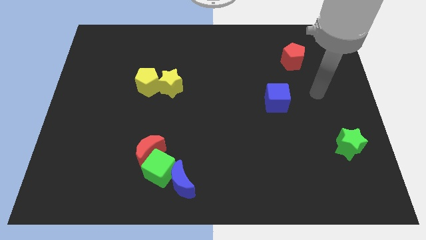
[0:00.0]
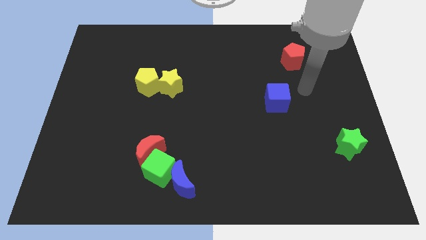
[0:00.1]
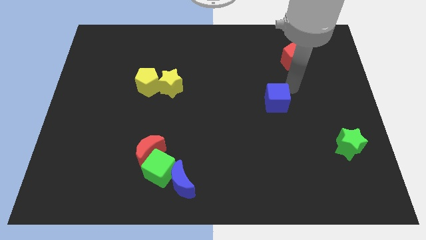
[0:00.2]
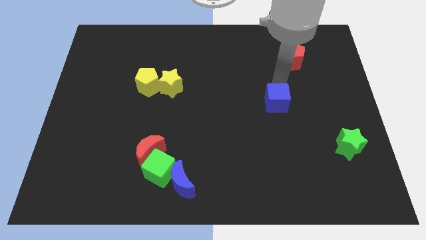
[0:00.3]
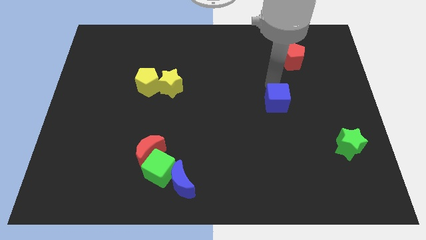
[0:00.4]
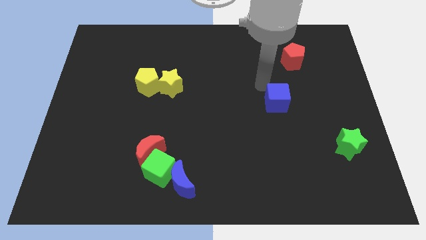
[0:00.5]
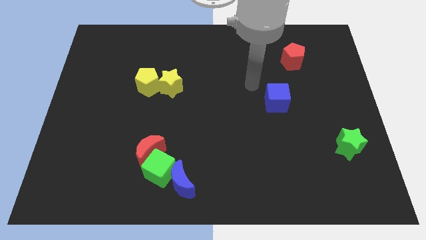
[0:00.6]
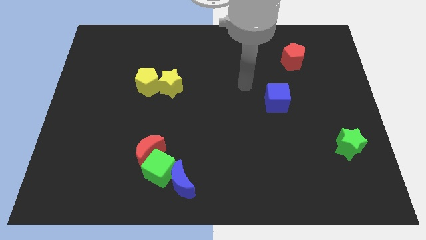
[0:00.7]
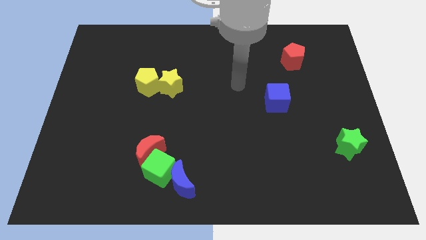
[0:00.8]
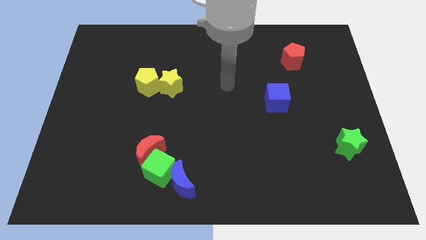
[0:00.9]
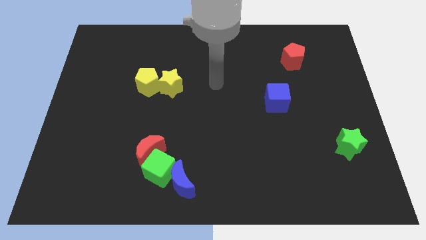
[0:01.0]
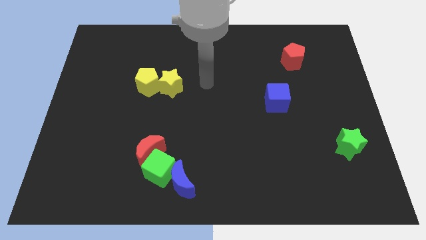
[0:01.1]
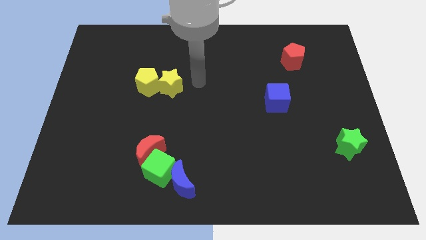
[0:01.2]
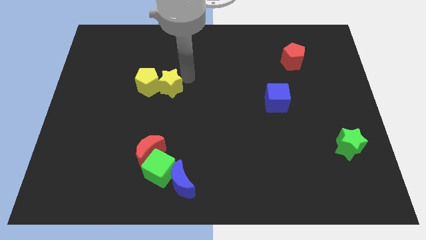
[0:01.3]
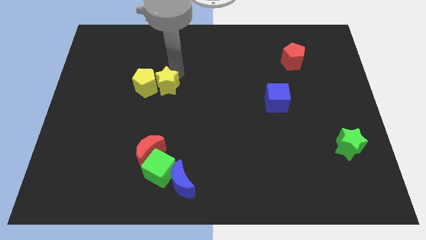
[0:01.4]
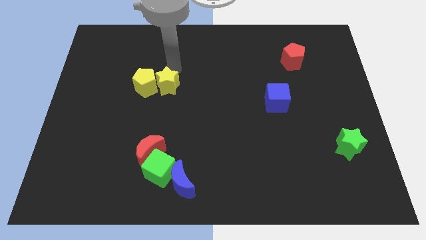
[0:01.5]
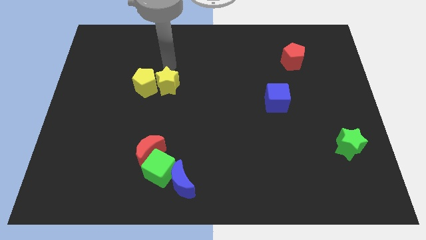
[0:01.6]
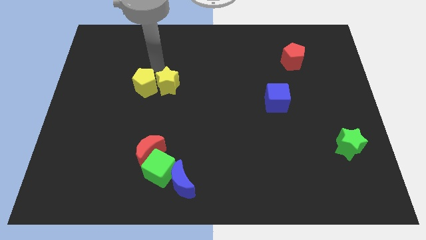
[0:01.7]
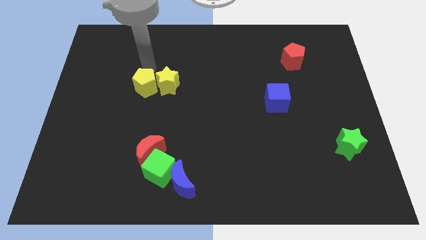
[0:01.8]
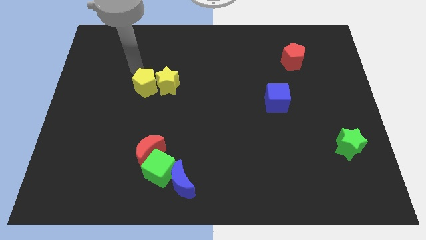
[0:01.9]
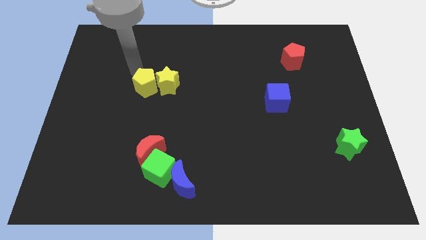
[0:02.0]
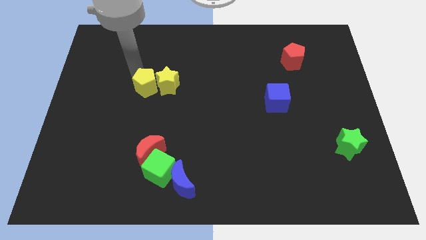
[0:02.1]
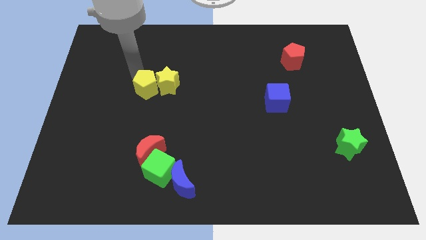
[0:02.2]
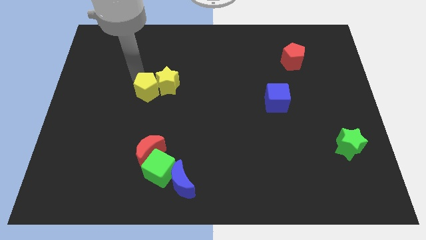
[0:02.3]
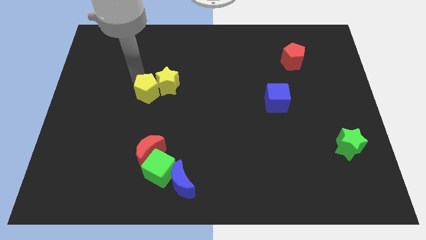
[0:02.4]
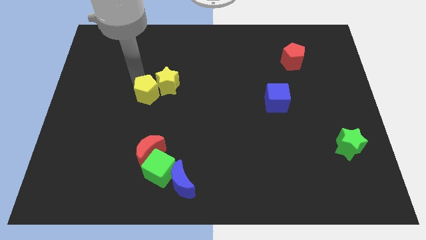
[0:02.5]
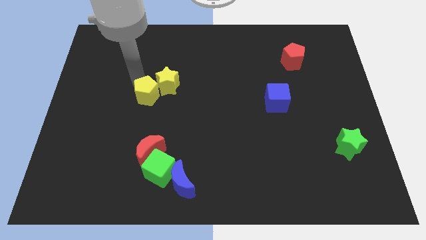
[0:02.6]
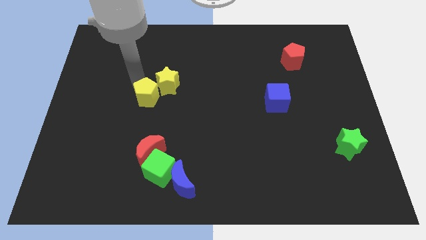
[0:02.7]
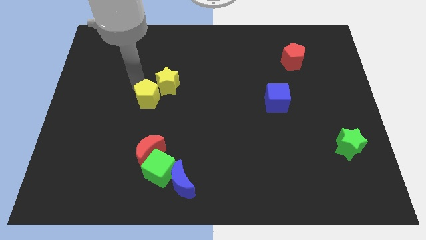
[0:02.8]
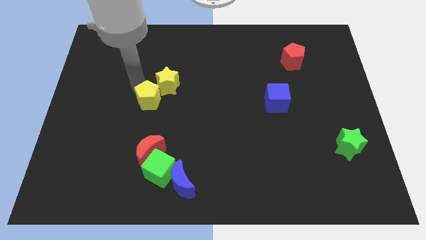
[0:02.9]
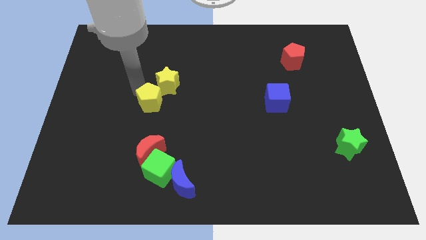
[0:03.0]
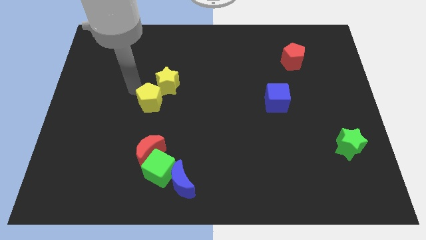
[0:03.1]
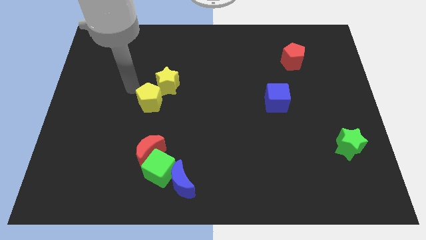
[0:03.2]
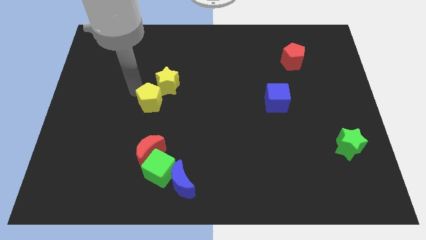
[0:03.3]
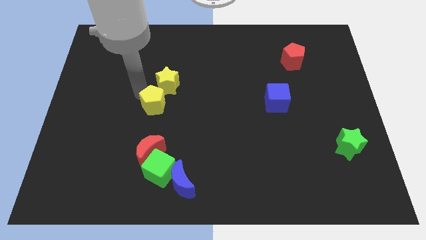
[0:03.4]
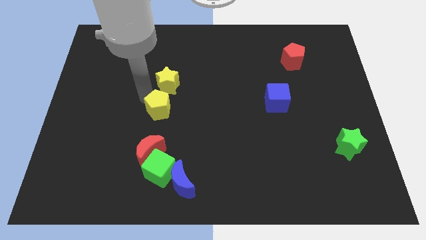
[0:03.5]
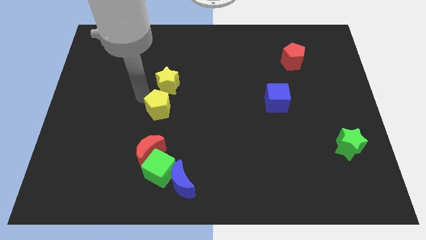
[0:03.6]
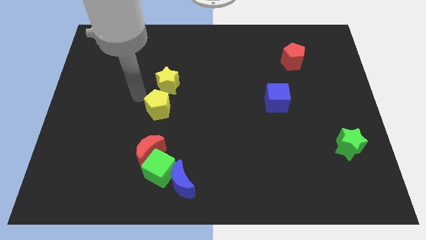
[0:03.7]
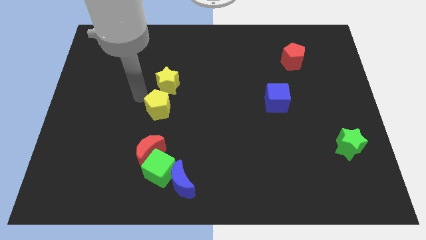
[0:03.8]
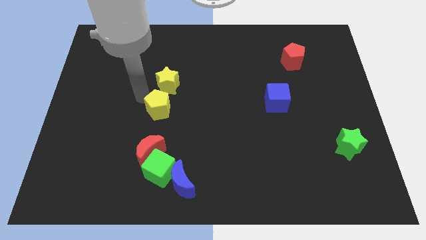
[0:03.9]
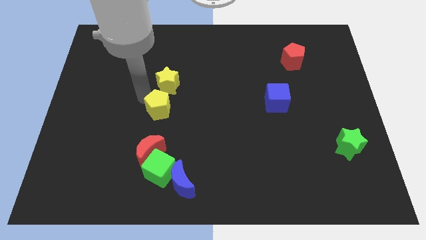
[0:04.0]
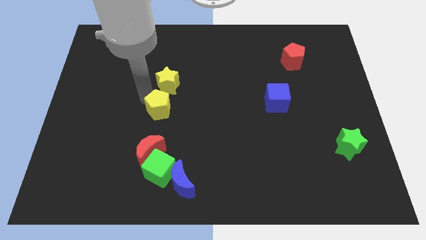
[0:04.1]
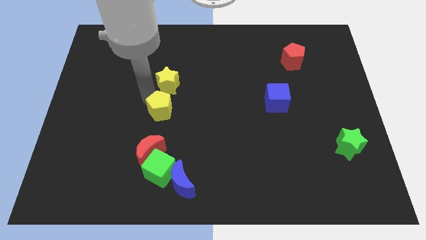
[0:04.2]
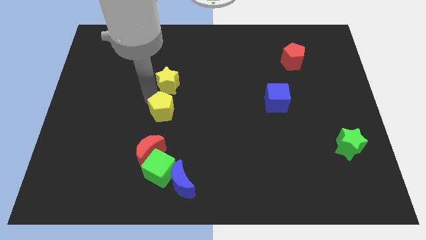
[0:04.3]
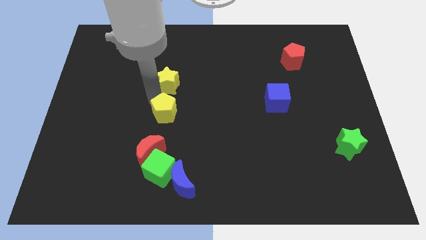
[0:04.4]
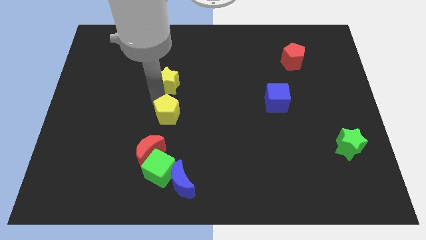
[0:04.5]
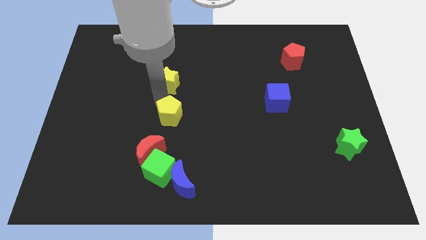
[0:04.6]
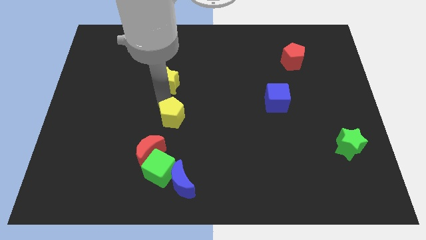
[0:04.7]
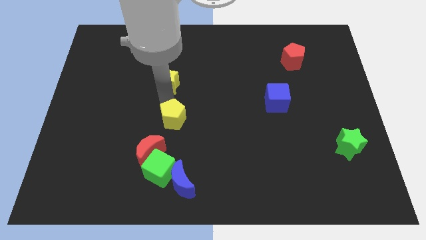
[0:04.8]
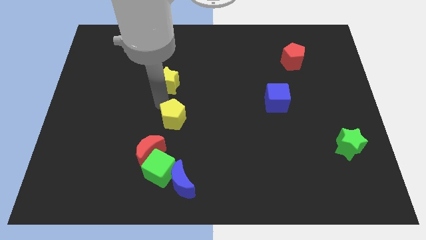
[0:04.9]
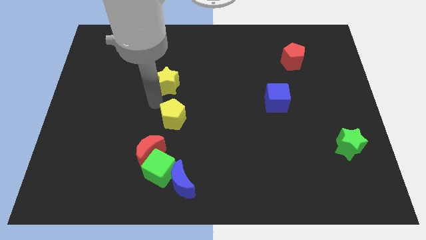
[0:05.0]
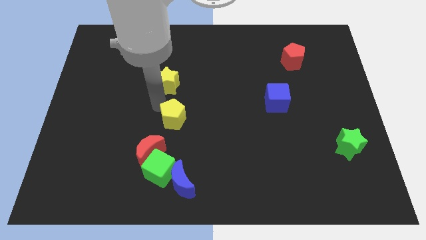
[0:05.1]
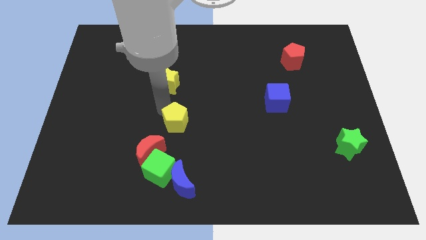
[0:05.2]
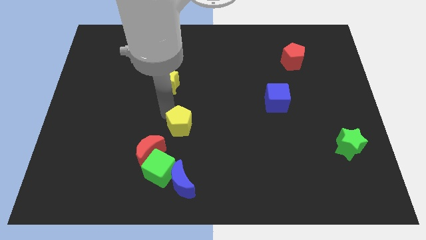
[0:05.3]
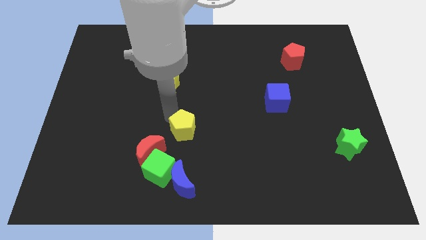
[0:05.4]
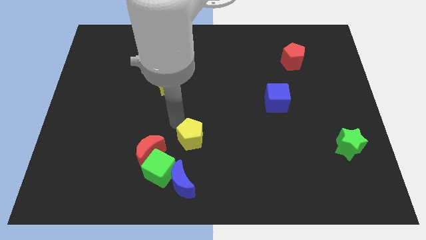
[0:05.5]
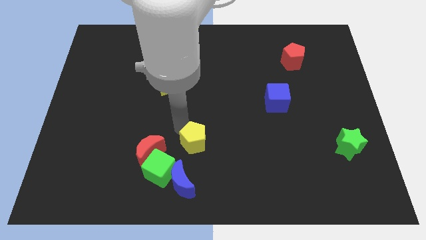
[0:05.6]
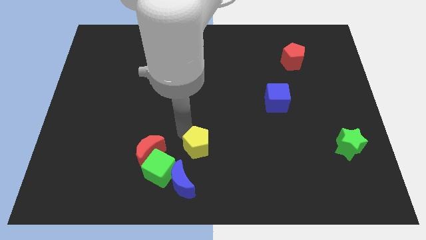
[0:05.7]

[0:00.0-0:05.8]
push the yellow pentagon down and right

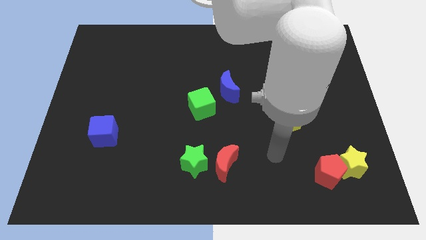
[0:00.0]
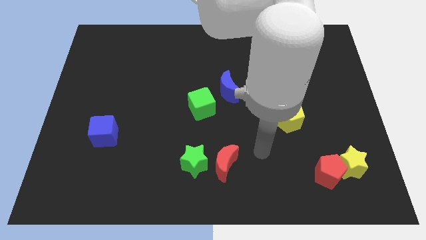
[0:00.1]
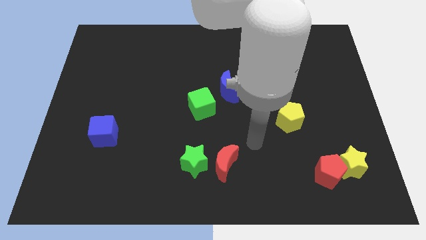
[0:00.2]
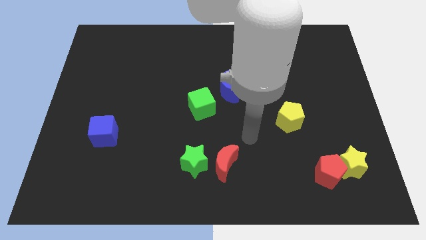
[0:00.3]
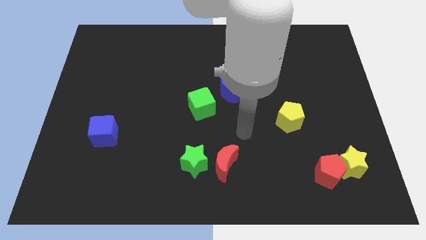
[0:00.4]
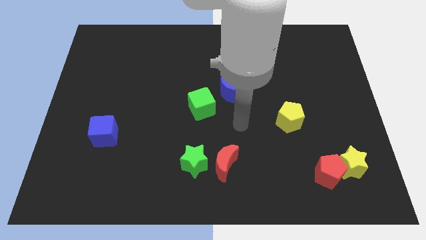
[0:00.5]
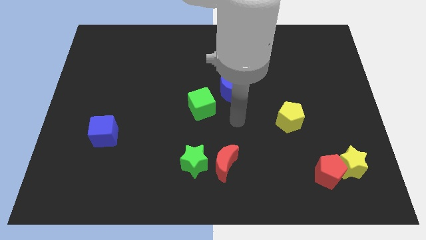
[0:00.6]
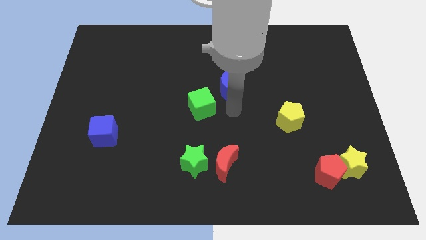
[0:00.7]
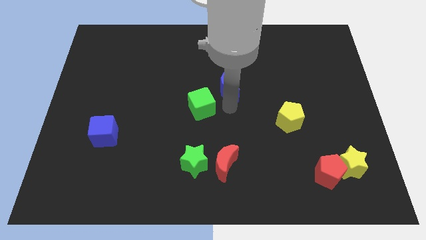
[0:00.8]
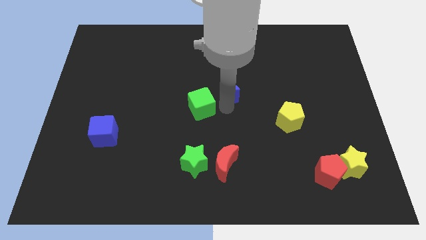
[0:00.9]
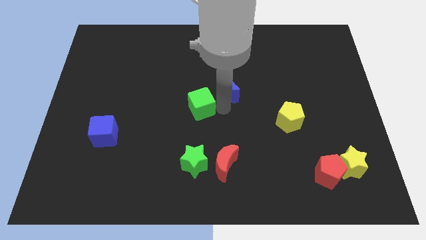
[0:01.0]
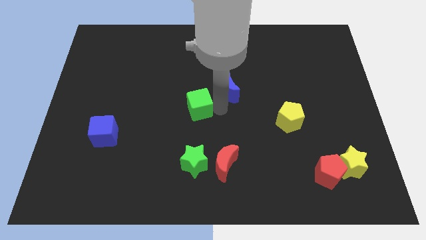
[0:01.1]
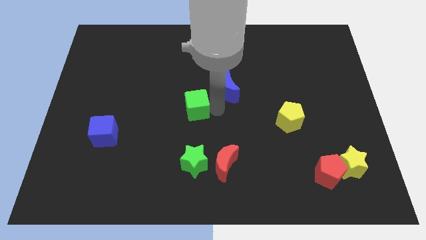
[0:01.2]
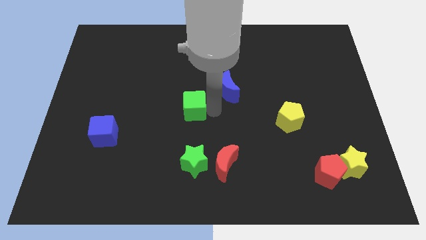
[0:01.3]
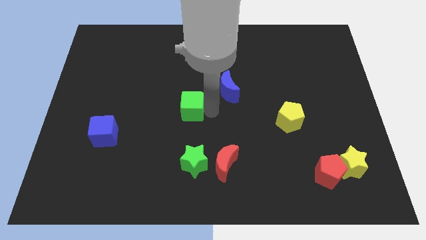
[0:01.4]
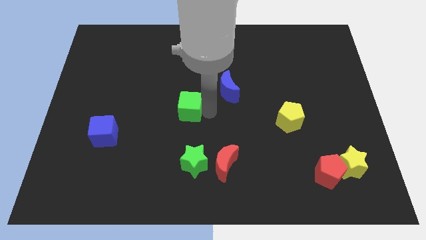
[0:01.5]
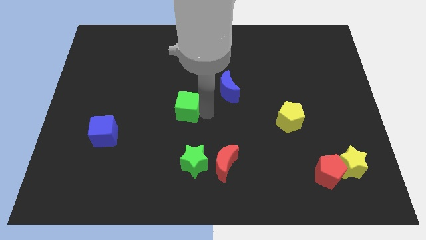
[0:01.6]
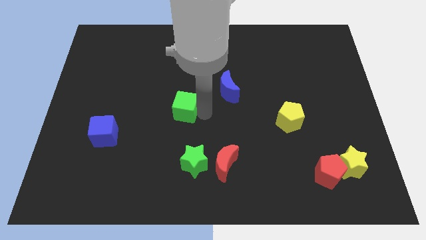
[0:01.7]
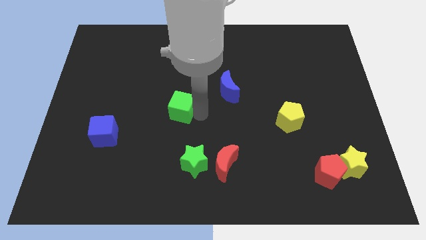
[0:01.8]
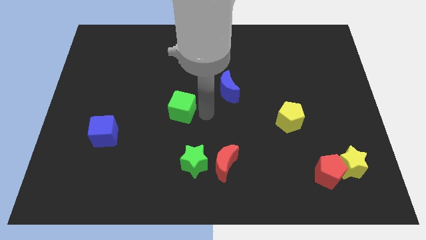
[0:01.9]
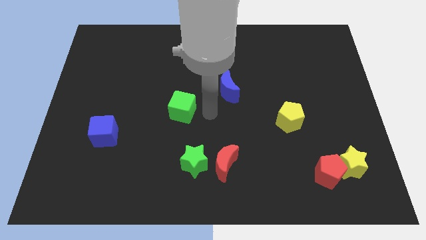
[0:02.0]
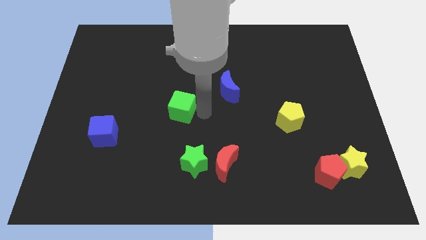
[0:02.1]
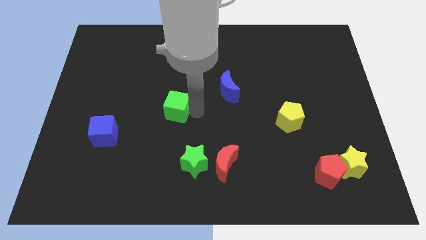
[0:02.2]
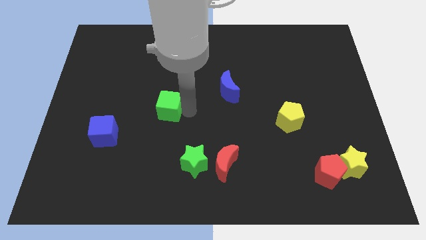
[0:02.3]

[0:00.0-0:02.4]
slide the green cube to the left a little

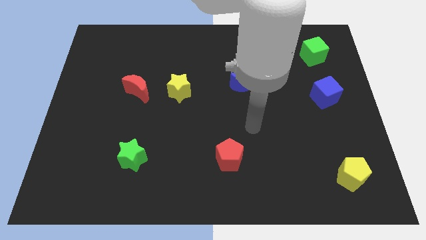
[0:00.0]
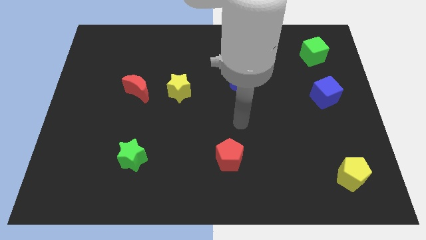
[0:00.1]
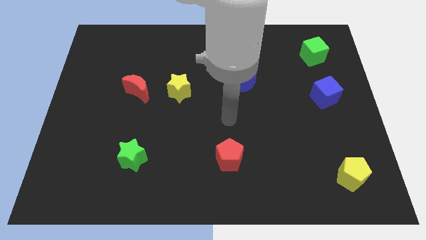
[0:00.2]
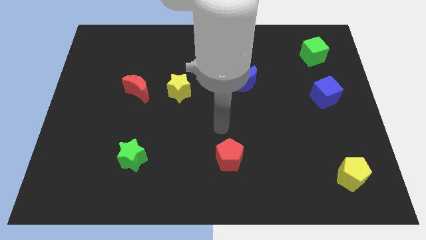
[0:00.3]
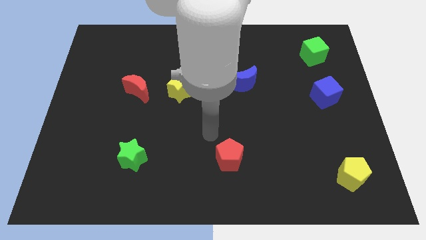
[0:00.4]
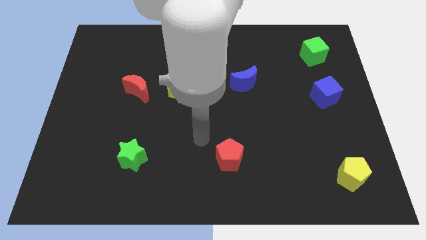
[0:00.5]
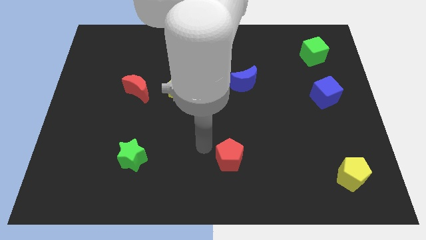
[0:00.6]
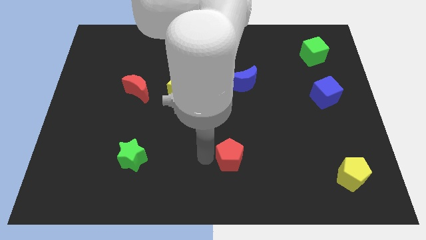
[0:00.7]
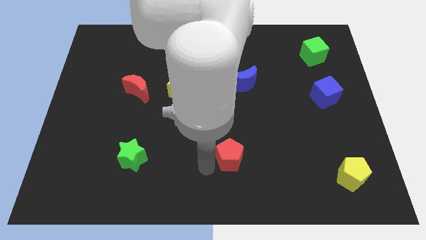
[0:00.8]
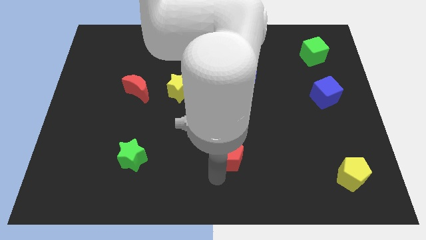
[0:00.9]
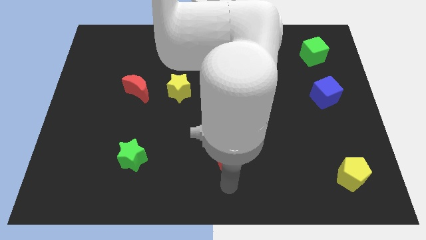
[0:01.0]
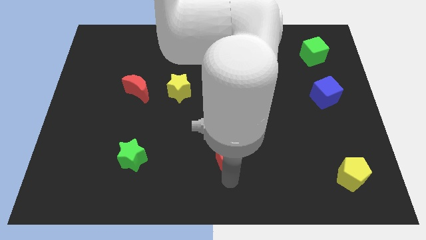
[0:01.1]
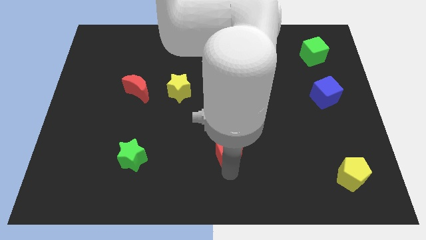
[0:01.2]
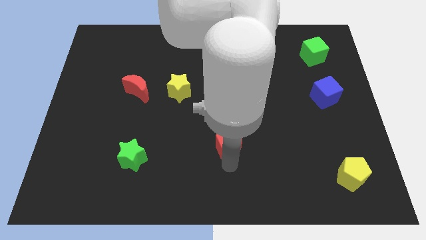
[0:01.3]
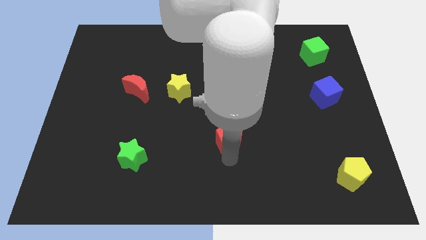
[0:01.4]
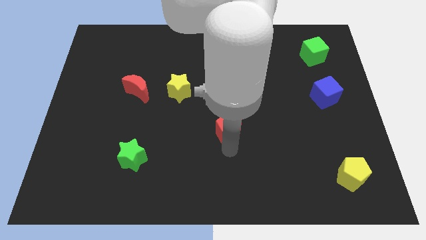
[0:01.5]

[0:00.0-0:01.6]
move the red pentagon a bit upwards
